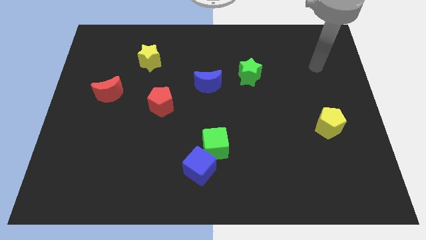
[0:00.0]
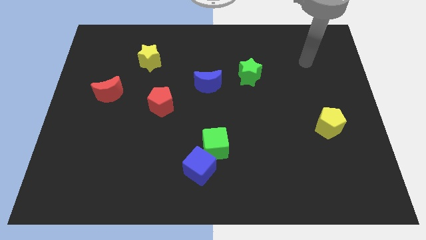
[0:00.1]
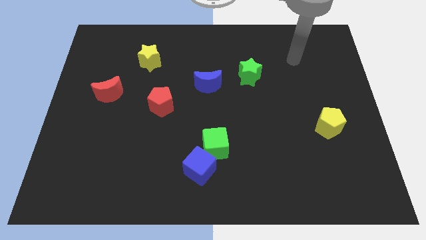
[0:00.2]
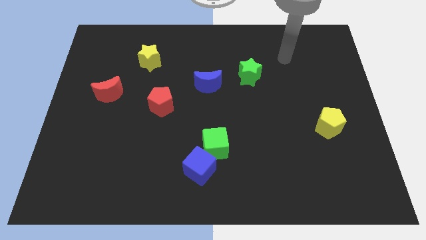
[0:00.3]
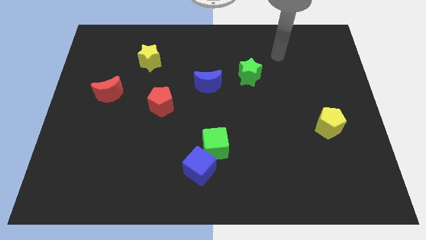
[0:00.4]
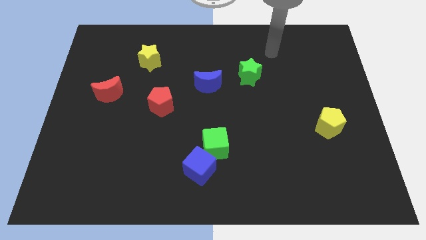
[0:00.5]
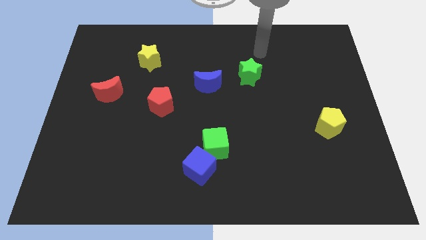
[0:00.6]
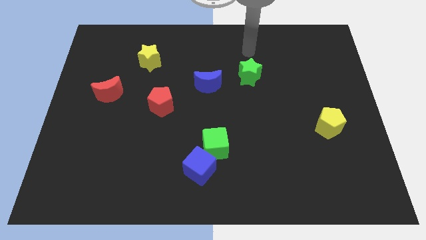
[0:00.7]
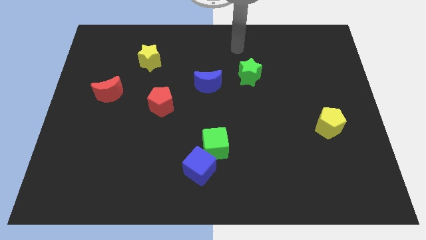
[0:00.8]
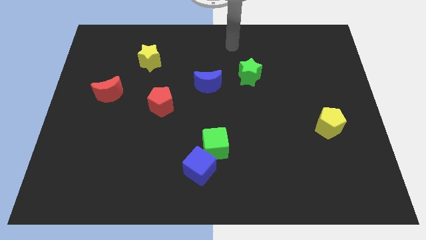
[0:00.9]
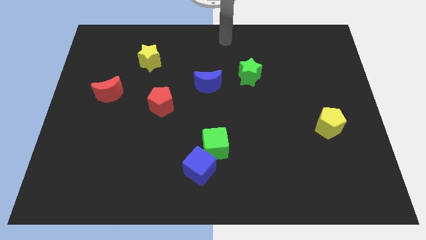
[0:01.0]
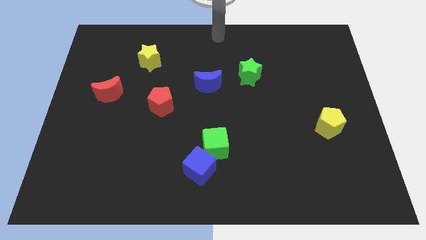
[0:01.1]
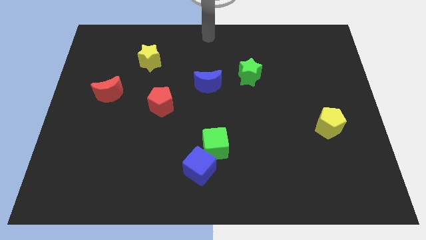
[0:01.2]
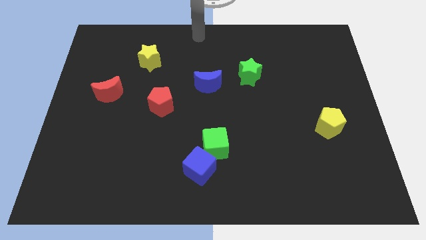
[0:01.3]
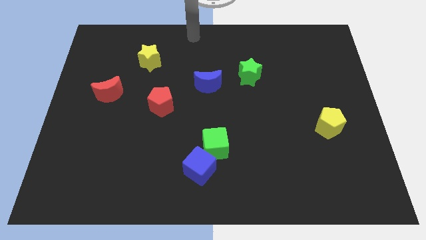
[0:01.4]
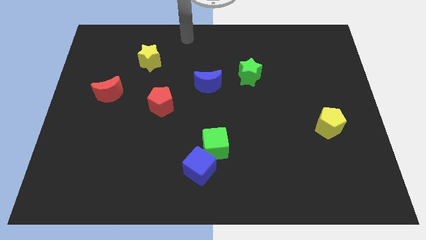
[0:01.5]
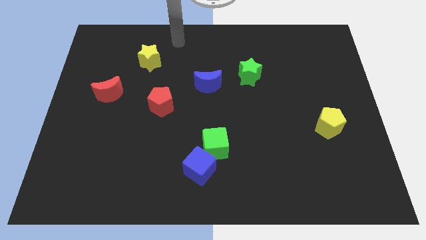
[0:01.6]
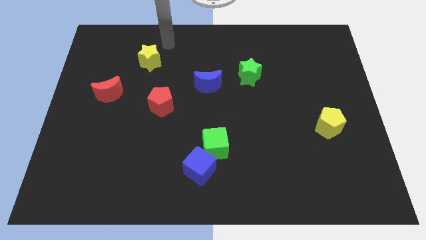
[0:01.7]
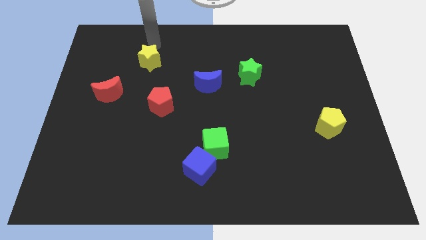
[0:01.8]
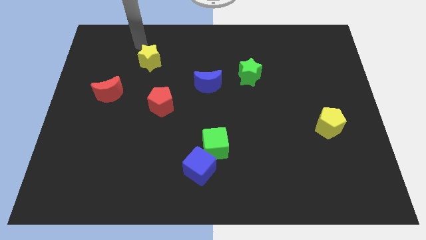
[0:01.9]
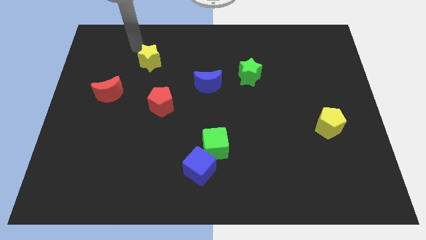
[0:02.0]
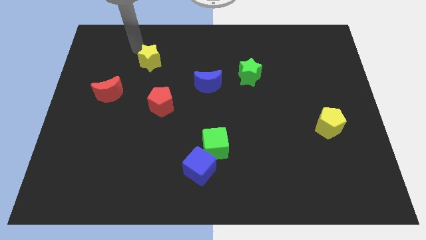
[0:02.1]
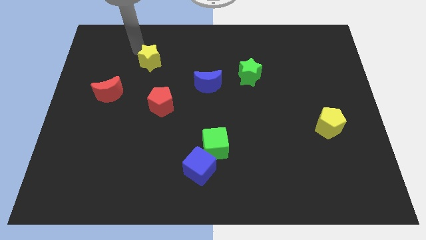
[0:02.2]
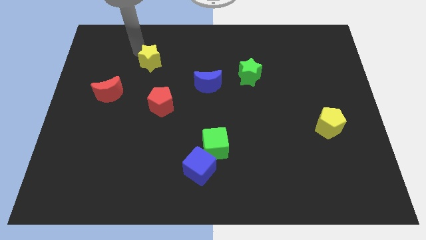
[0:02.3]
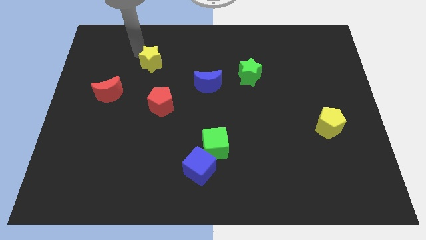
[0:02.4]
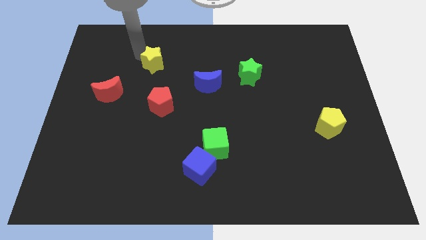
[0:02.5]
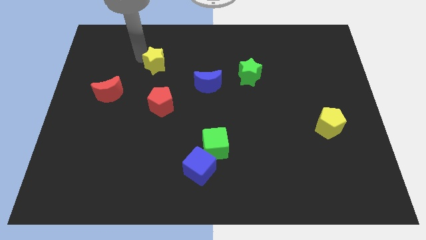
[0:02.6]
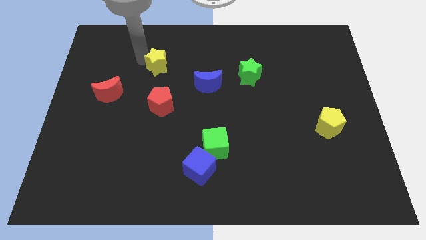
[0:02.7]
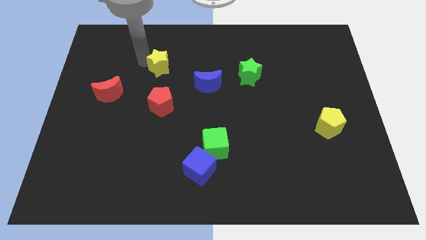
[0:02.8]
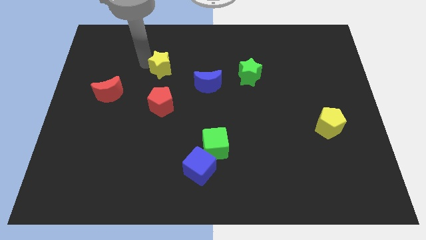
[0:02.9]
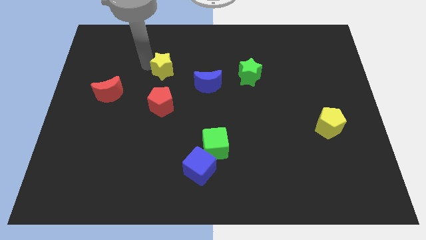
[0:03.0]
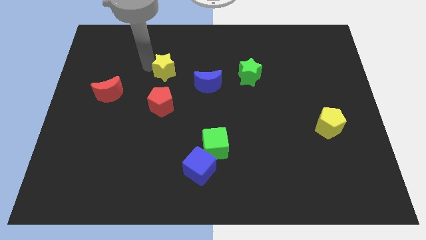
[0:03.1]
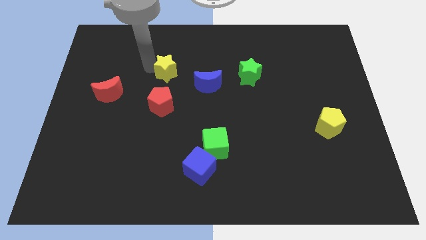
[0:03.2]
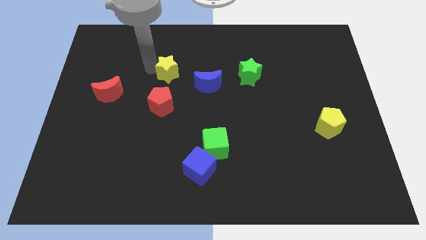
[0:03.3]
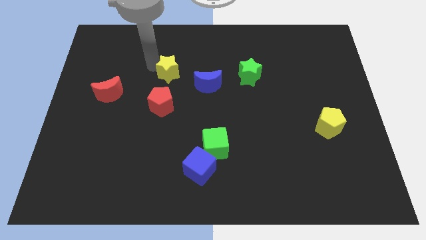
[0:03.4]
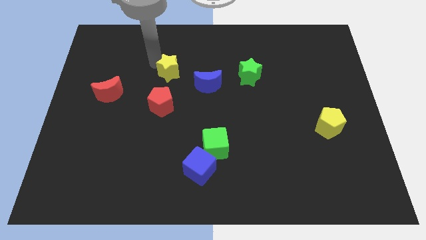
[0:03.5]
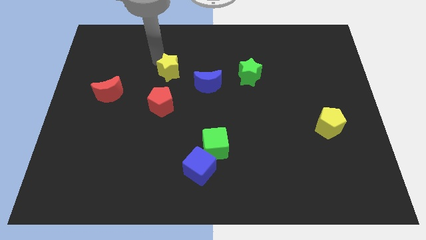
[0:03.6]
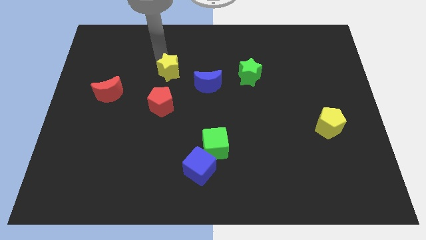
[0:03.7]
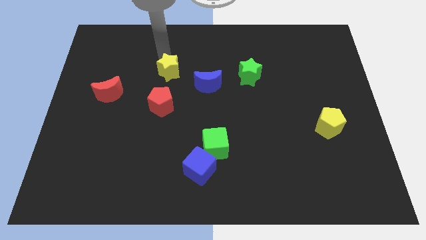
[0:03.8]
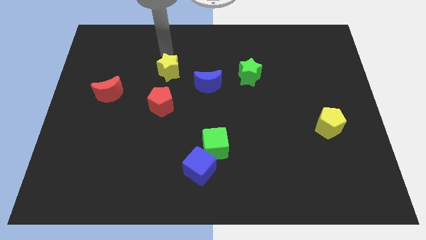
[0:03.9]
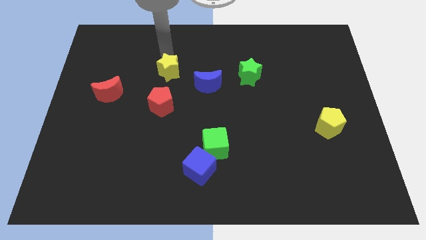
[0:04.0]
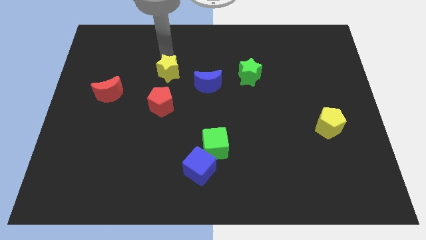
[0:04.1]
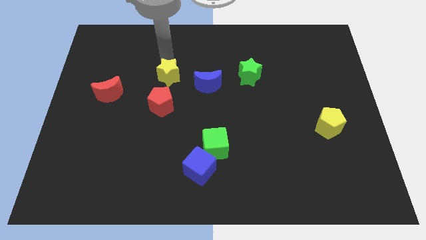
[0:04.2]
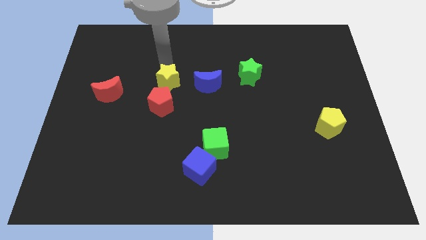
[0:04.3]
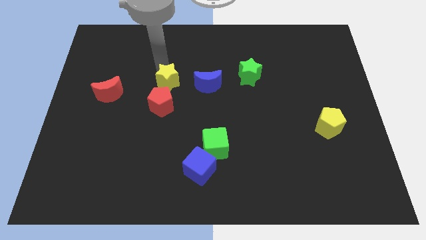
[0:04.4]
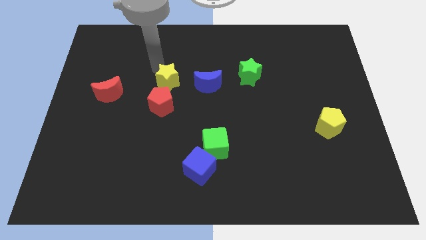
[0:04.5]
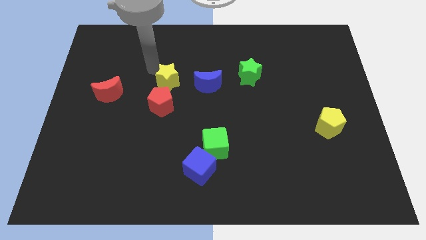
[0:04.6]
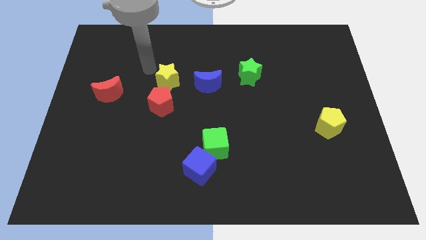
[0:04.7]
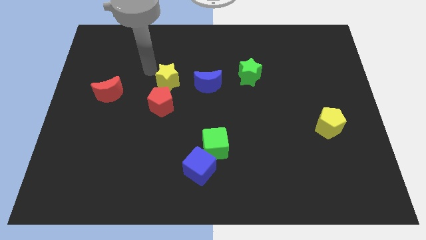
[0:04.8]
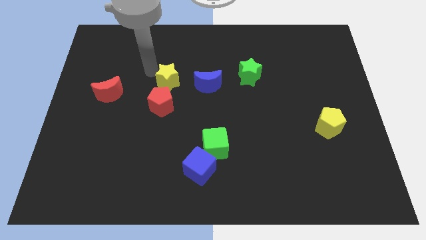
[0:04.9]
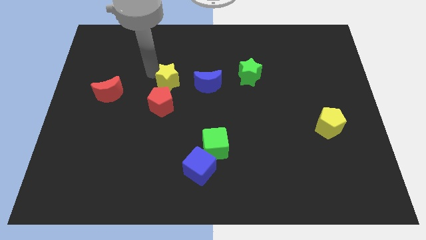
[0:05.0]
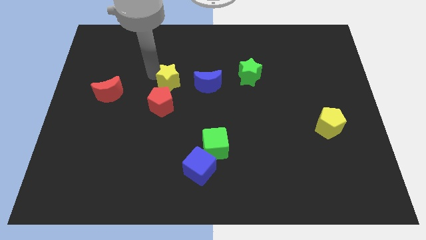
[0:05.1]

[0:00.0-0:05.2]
put the yellow star to the middle of the board
